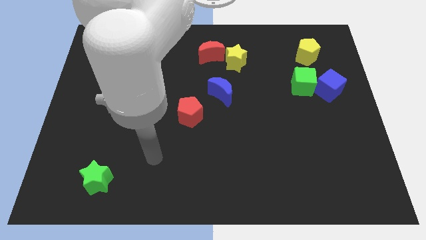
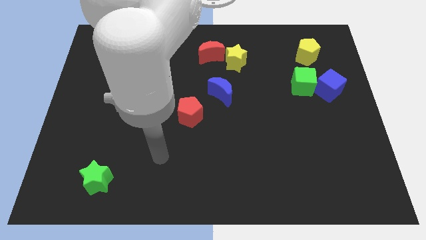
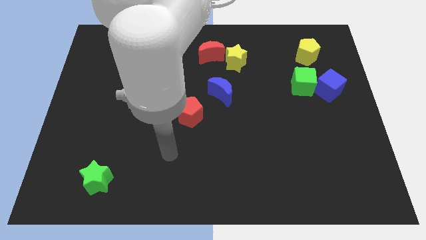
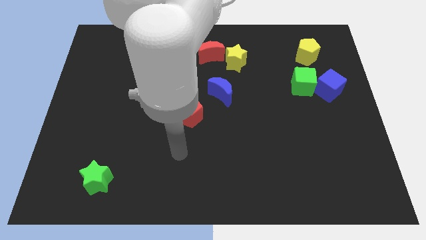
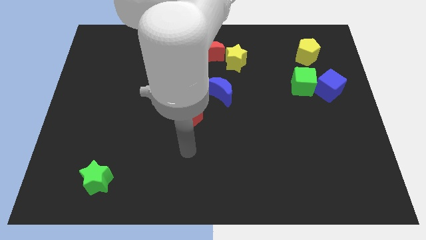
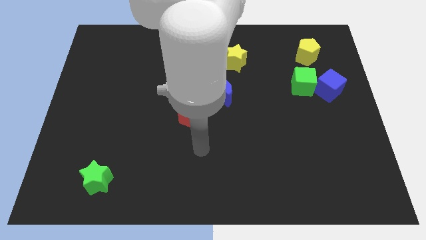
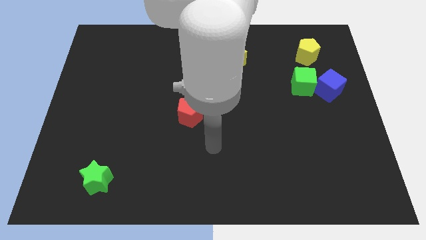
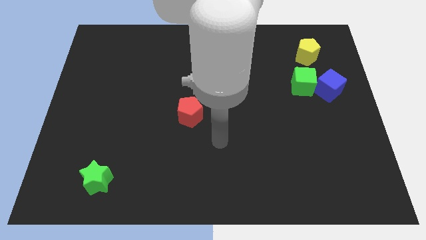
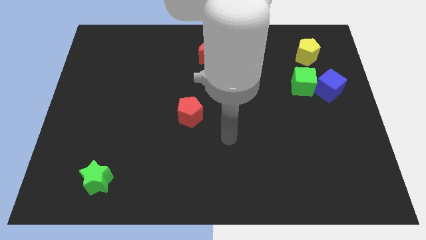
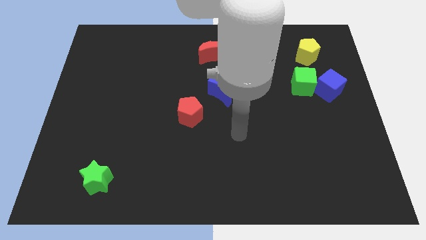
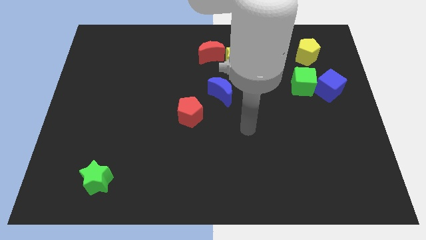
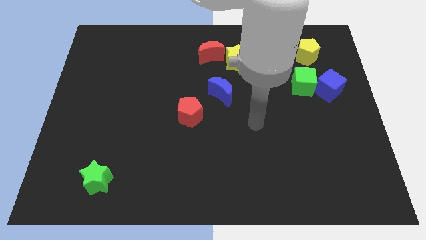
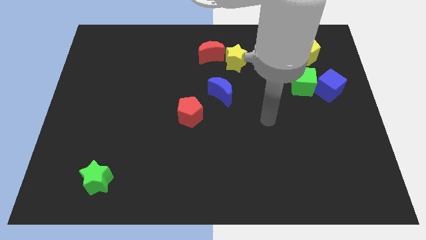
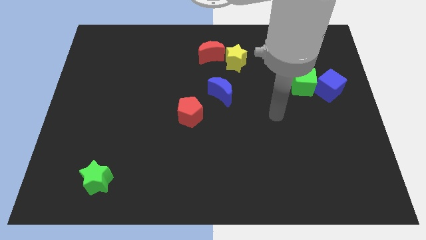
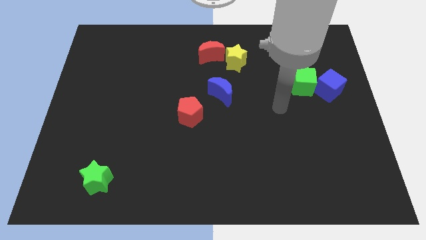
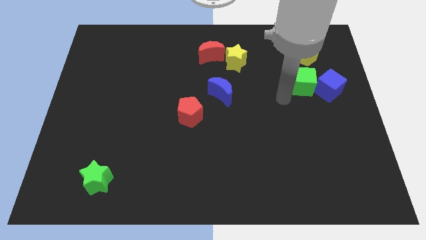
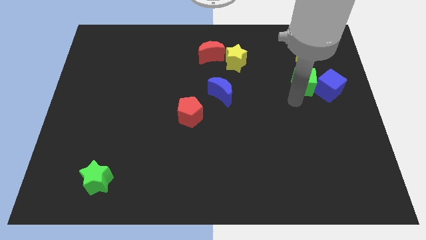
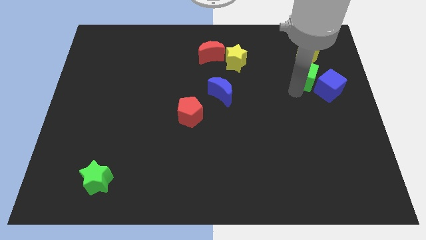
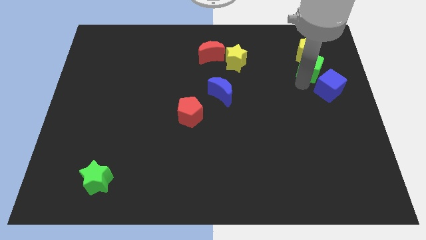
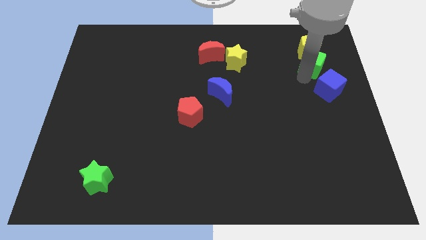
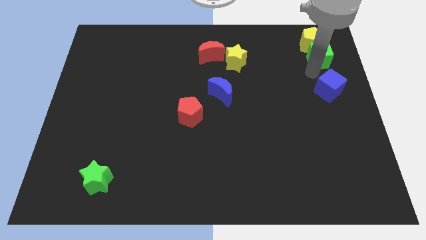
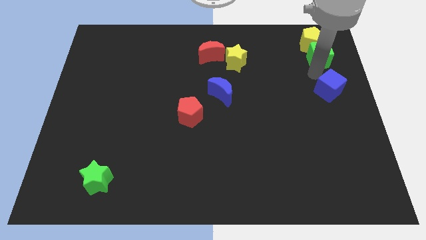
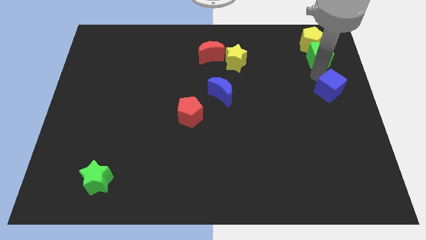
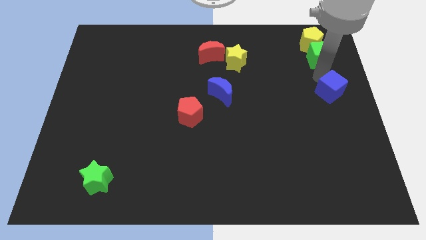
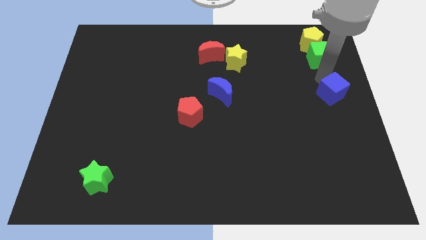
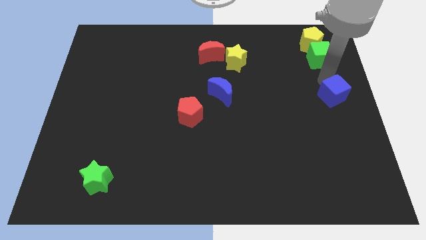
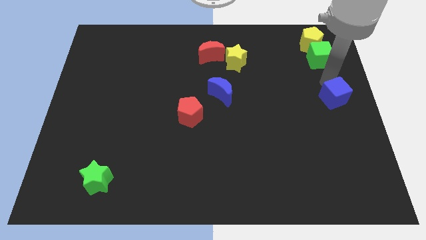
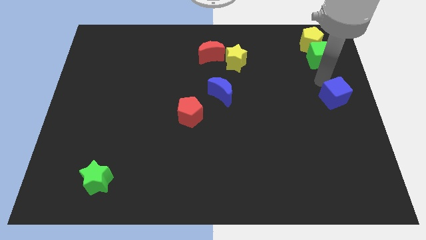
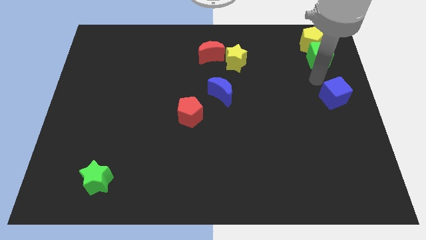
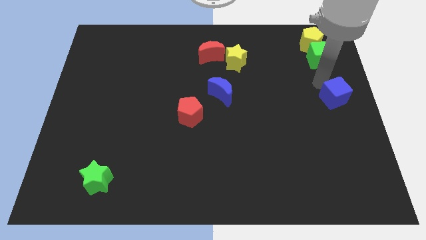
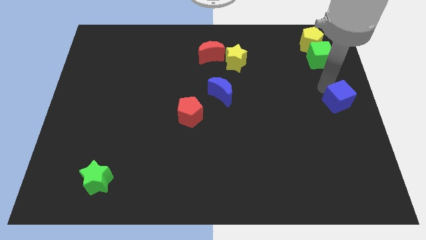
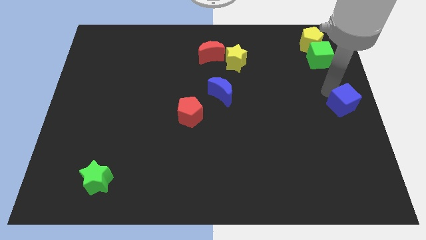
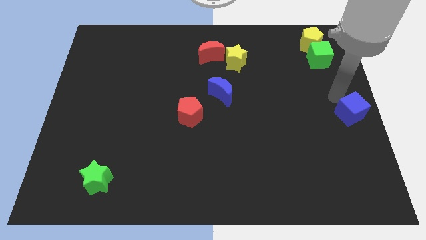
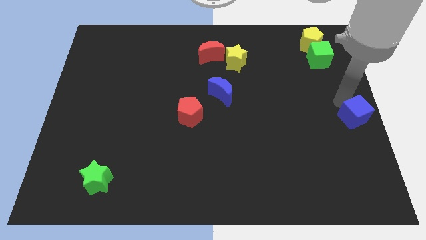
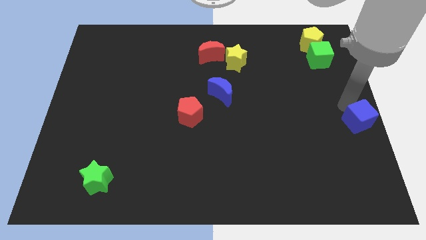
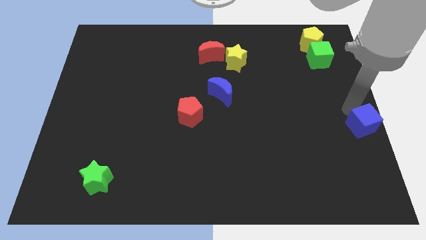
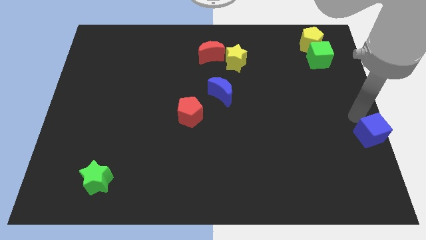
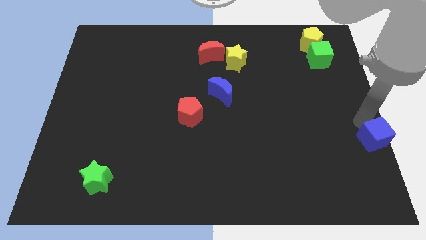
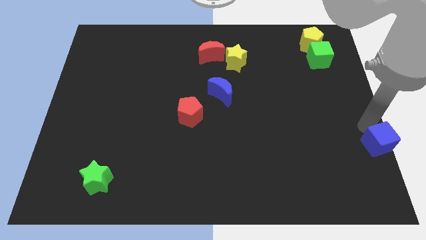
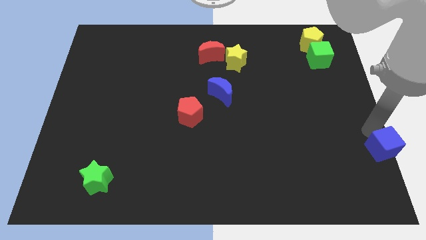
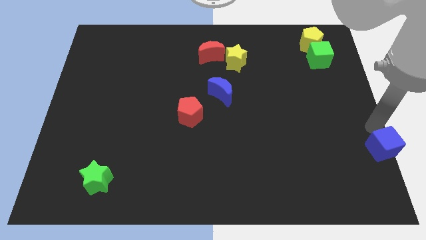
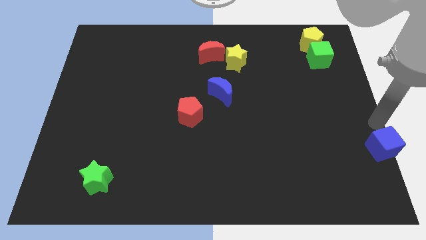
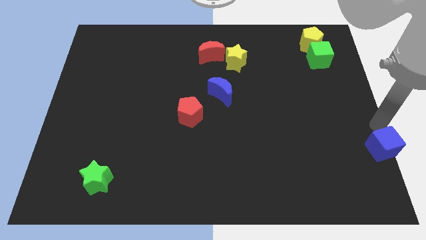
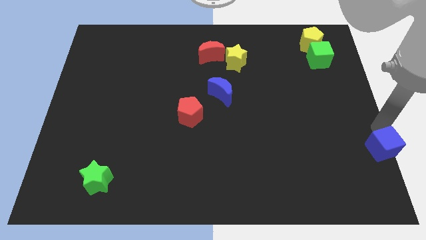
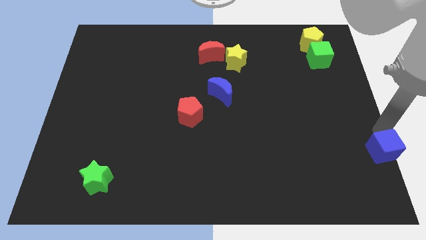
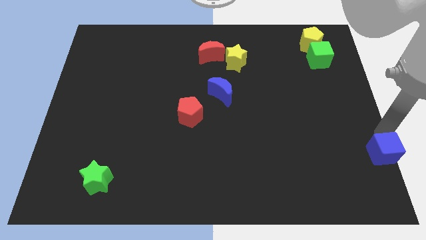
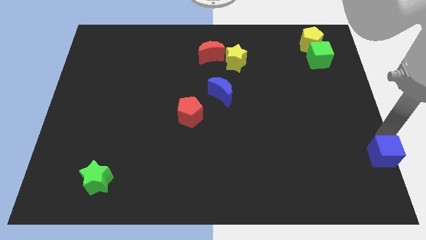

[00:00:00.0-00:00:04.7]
put the blue cube to the bottom right corner

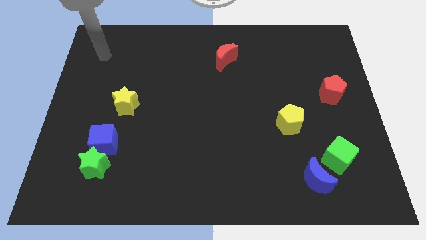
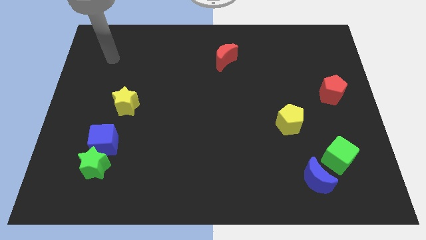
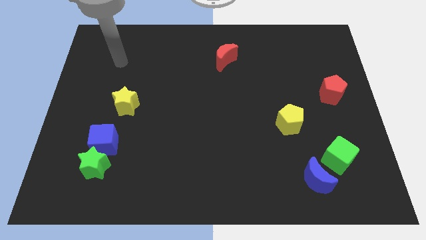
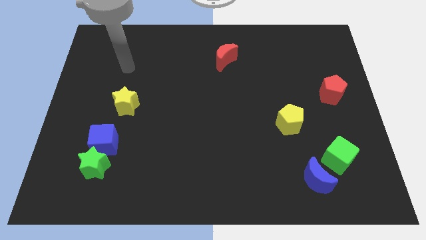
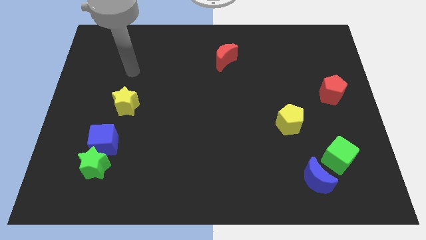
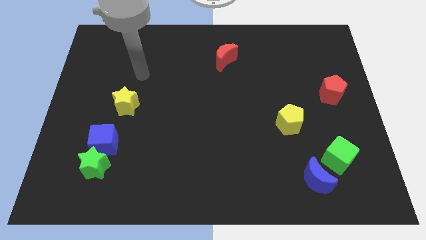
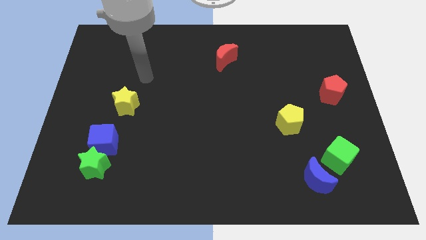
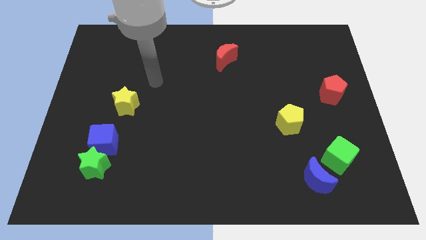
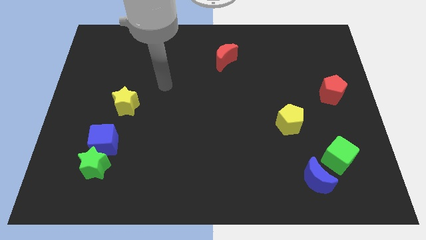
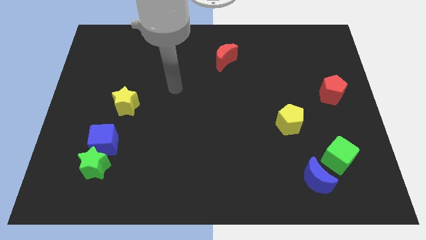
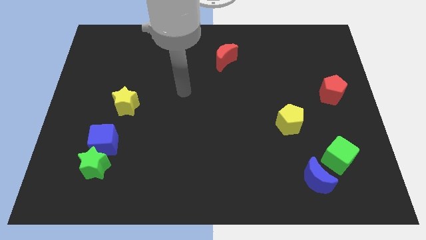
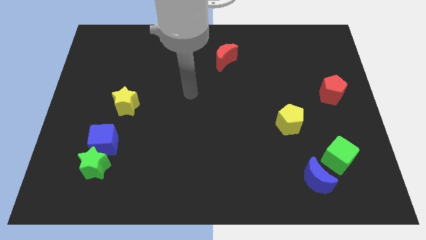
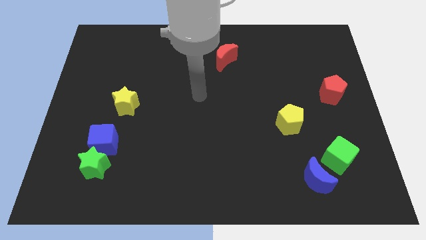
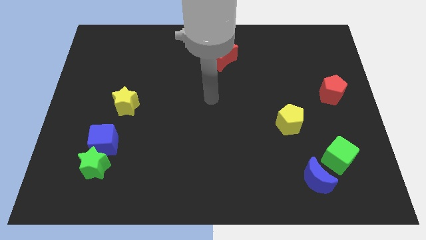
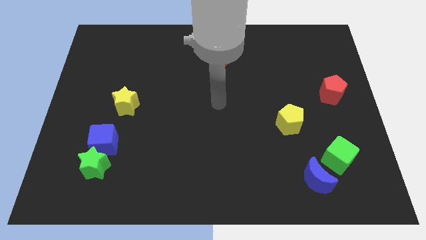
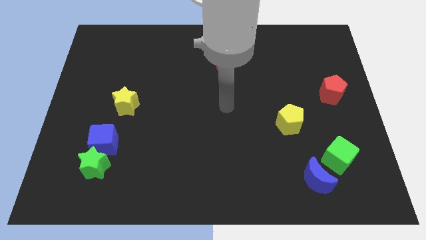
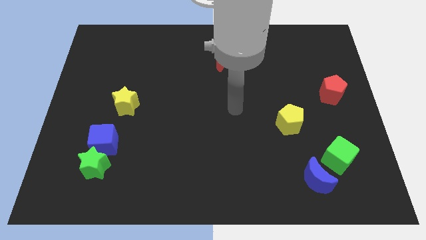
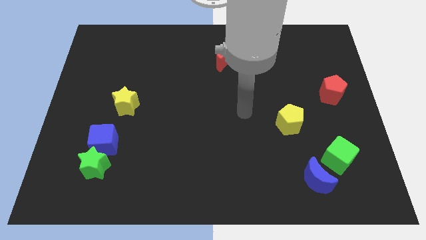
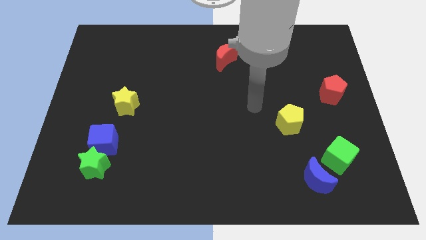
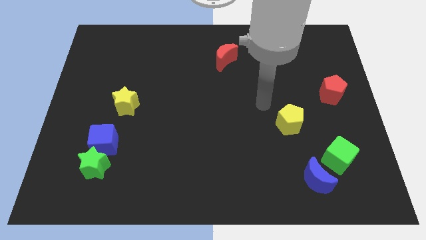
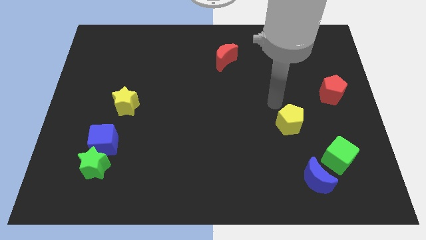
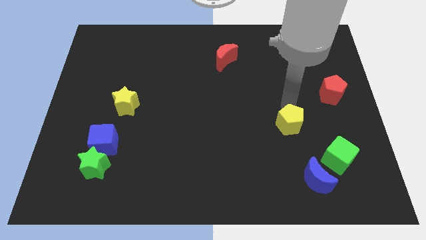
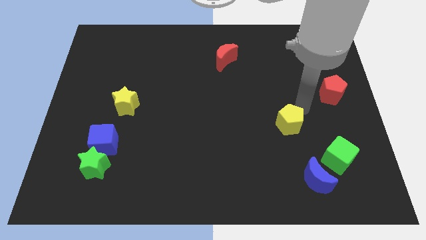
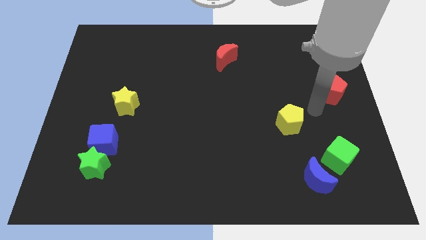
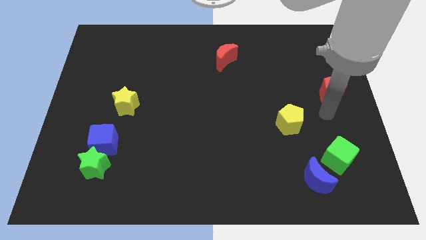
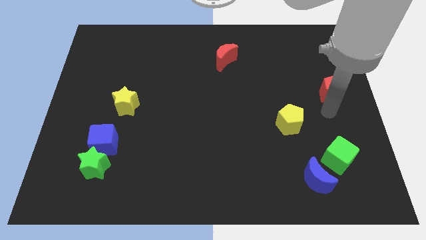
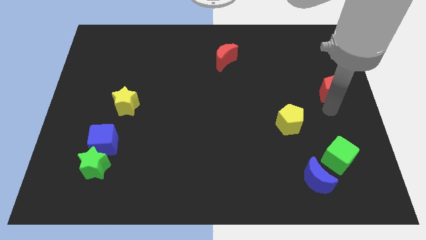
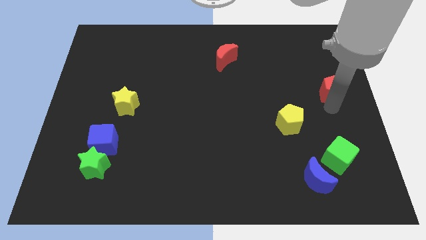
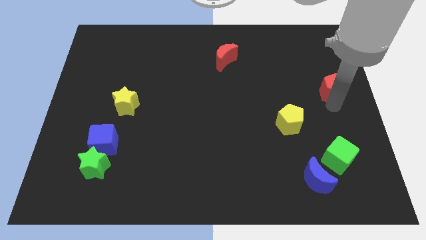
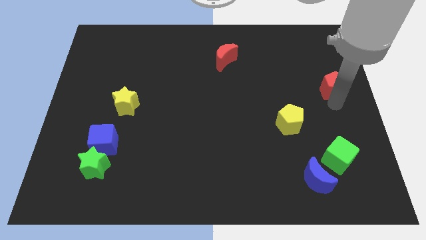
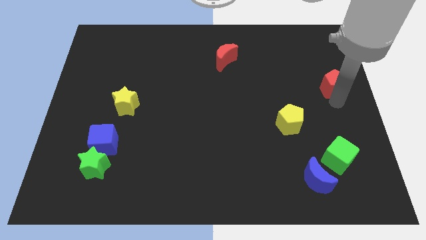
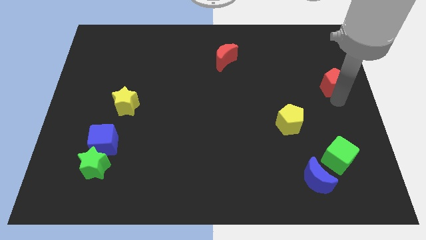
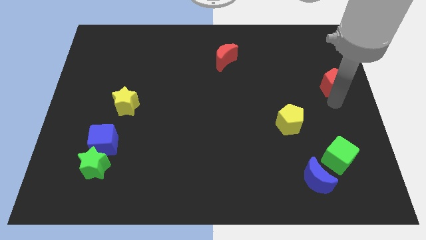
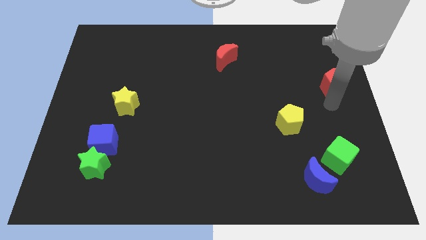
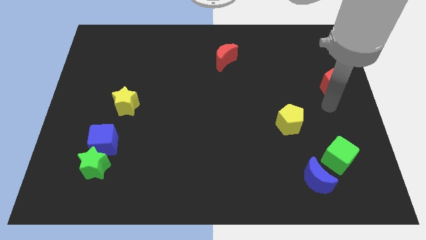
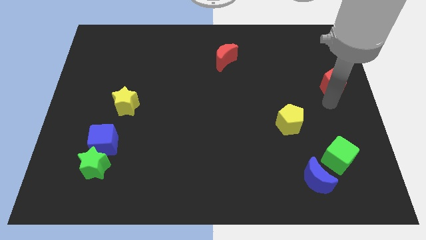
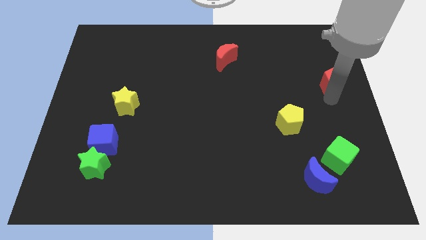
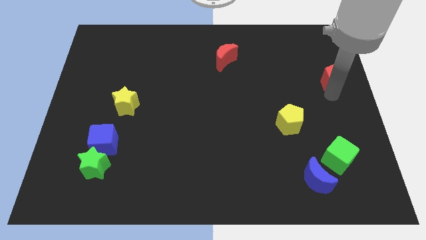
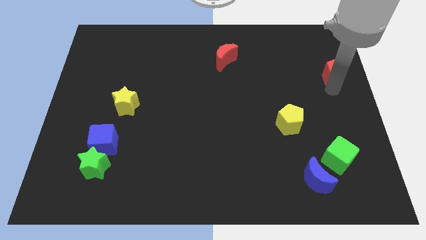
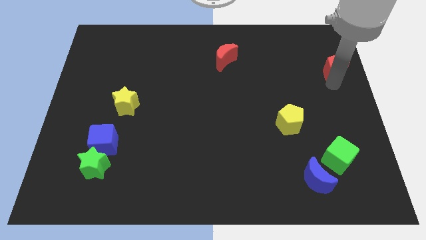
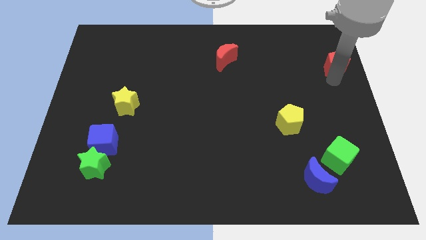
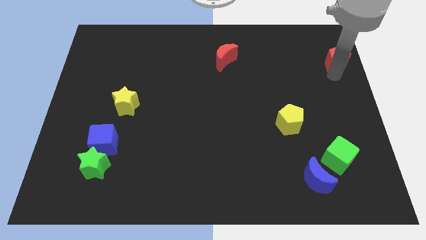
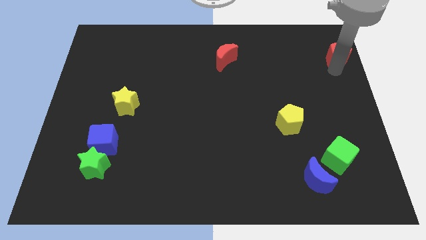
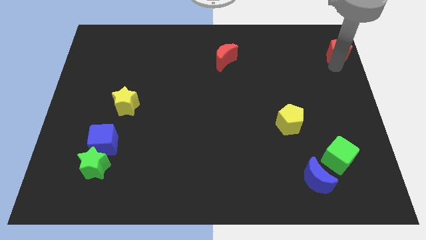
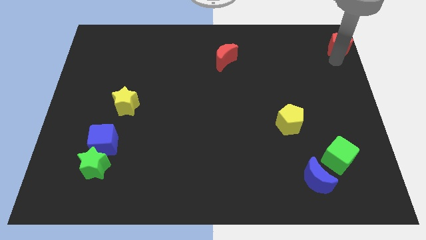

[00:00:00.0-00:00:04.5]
slide the red pentagon to the upper right corner
